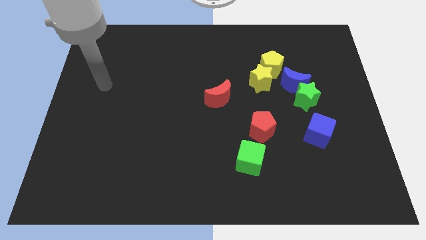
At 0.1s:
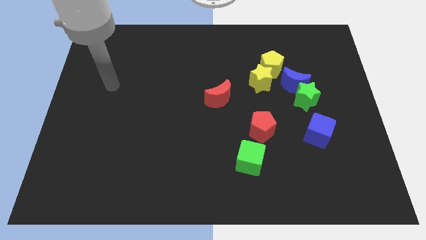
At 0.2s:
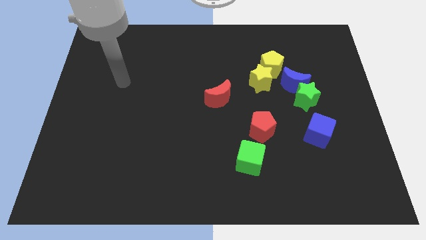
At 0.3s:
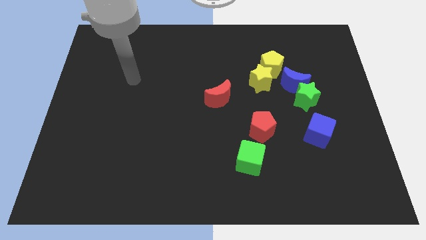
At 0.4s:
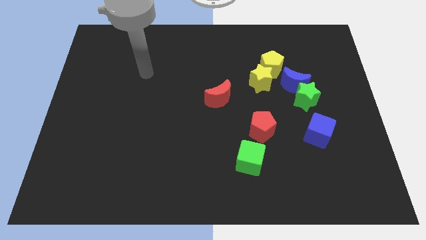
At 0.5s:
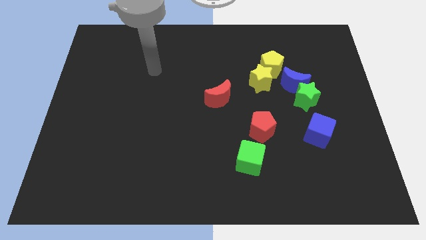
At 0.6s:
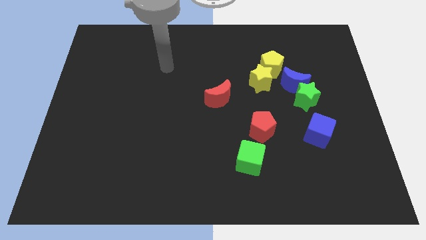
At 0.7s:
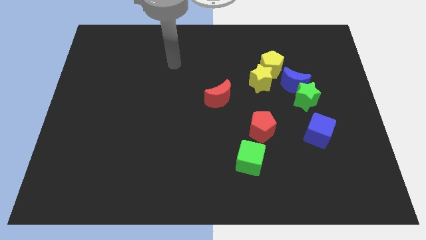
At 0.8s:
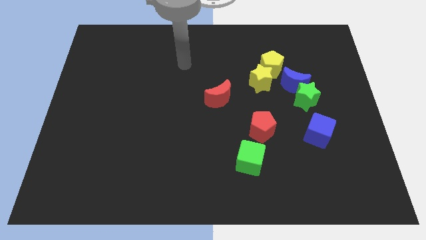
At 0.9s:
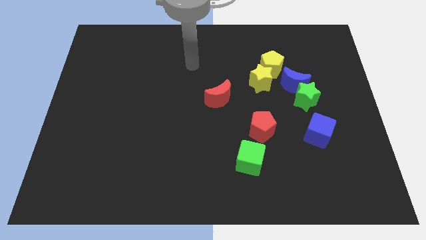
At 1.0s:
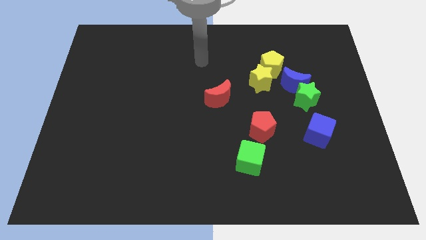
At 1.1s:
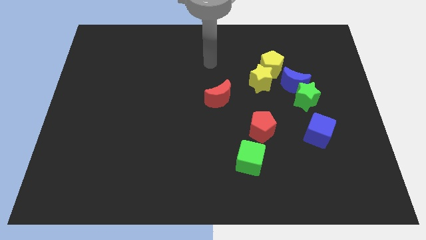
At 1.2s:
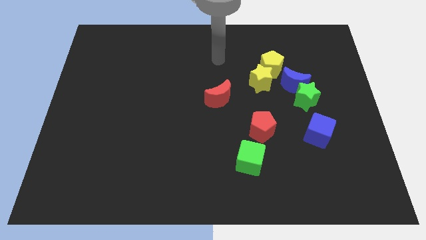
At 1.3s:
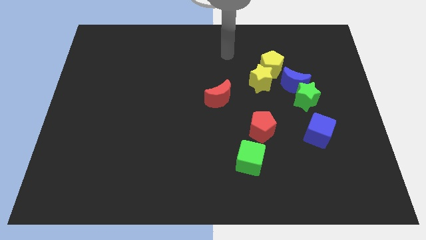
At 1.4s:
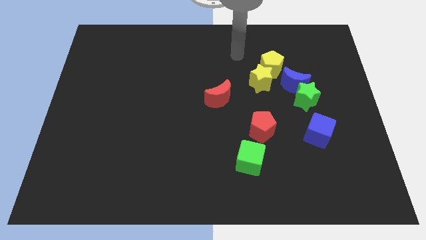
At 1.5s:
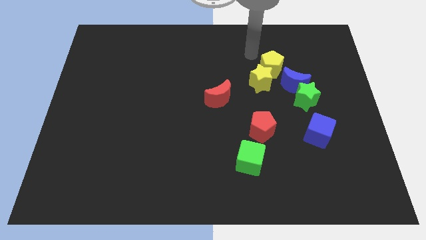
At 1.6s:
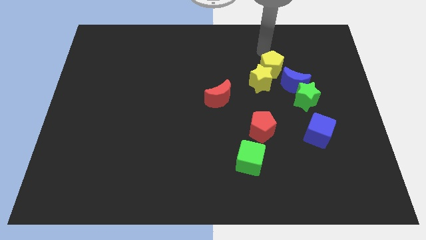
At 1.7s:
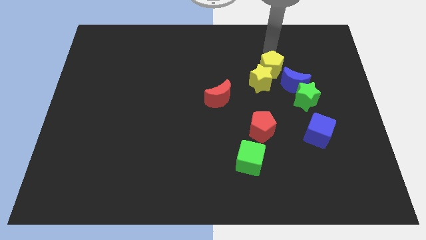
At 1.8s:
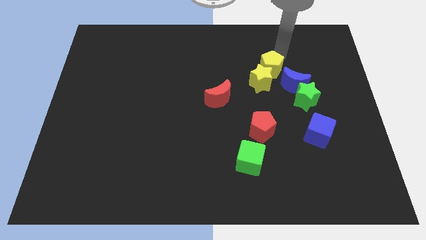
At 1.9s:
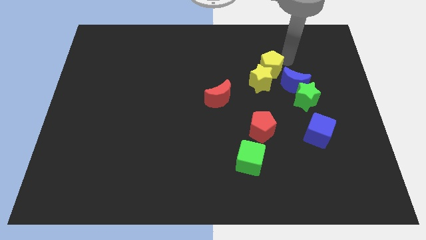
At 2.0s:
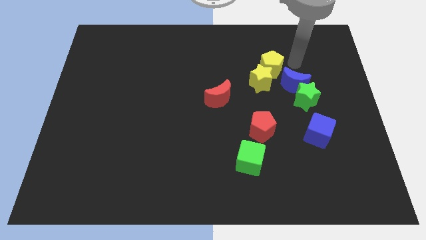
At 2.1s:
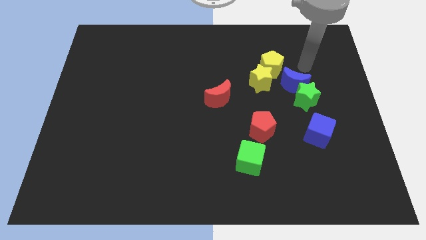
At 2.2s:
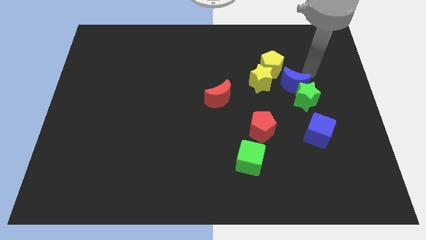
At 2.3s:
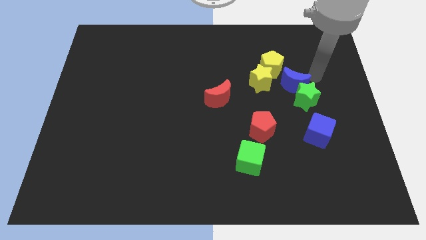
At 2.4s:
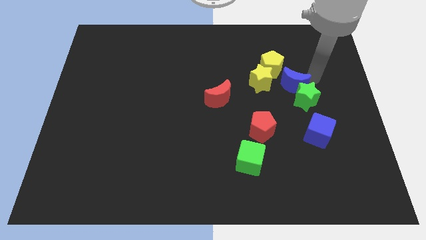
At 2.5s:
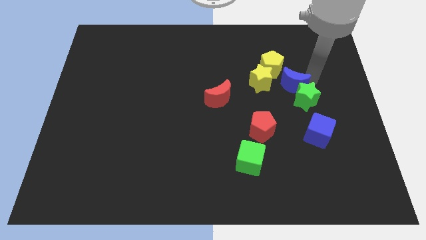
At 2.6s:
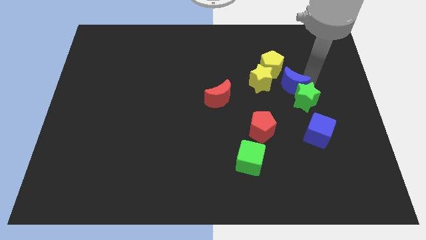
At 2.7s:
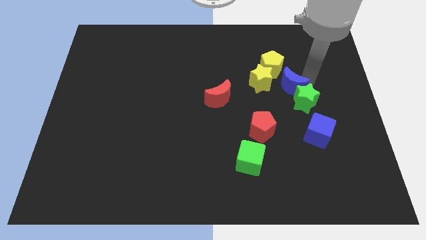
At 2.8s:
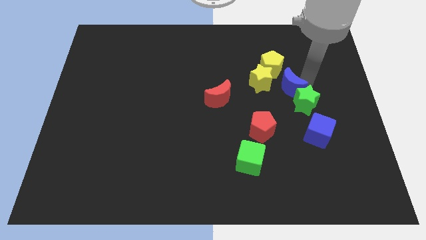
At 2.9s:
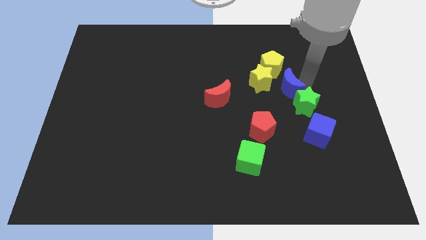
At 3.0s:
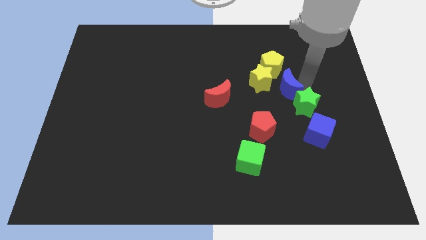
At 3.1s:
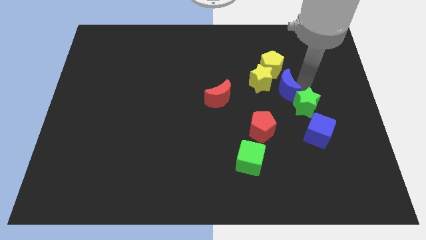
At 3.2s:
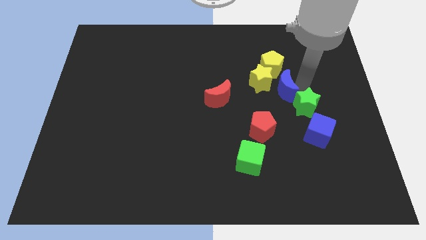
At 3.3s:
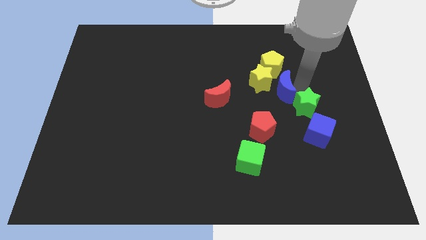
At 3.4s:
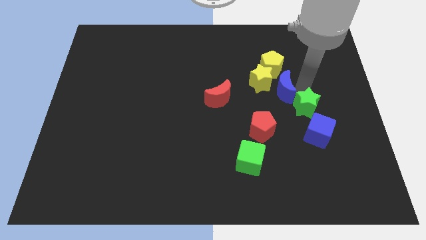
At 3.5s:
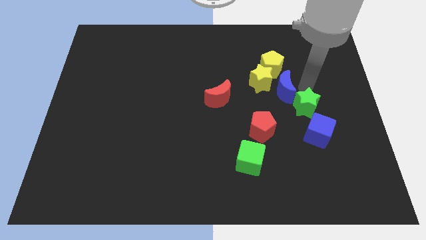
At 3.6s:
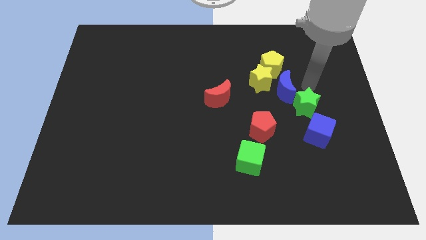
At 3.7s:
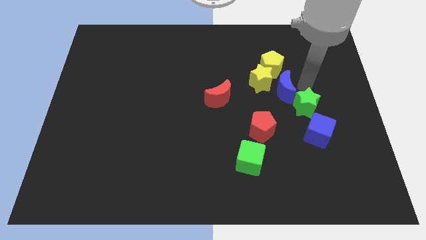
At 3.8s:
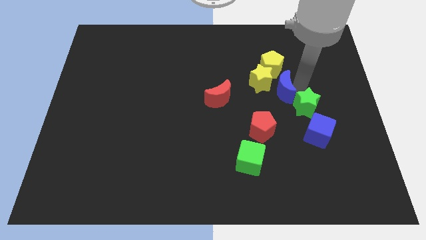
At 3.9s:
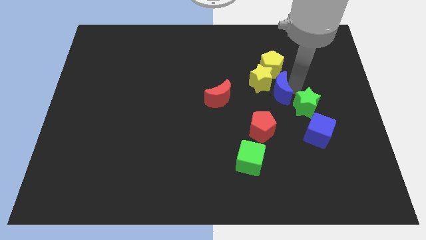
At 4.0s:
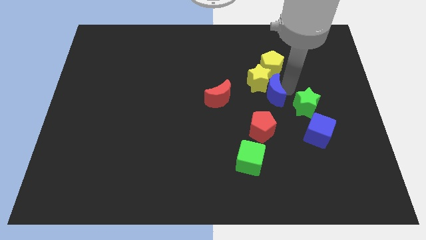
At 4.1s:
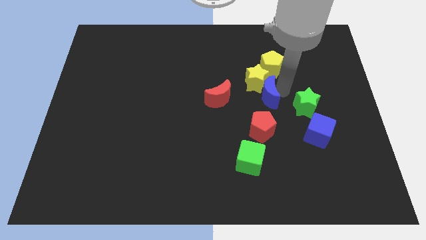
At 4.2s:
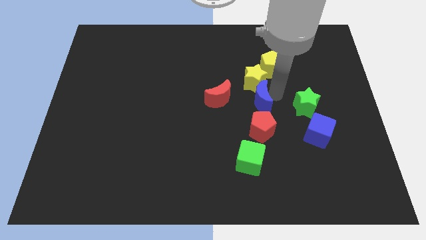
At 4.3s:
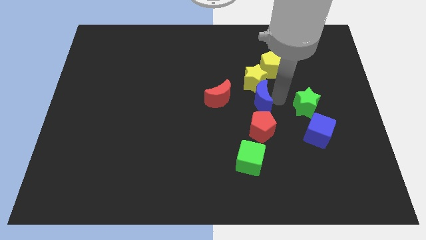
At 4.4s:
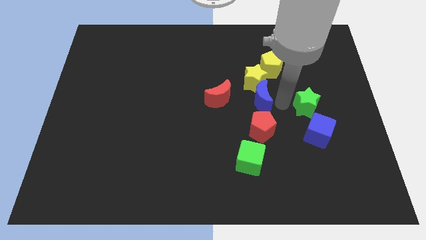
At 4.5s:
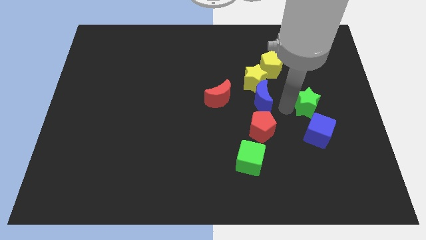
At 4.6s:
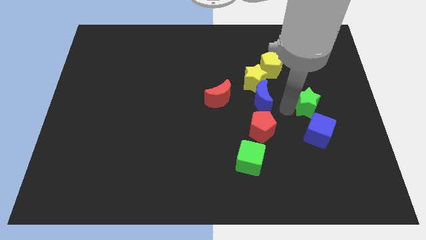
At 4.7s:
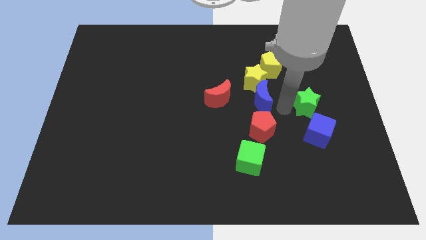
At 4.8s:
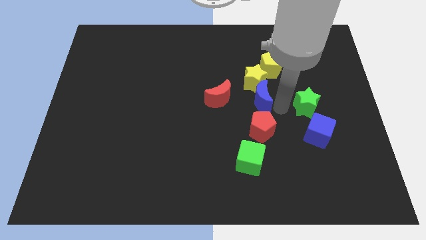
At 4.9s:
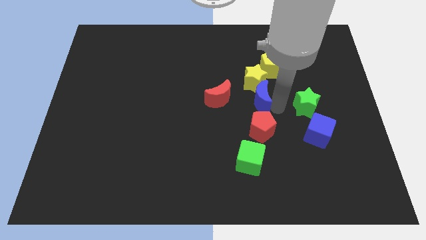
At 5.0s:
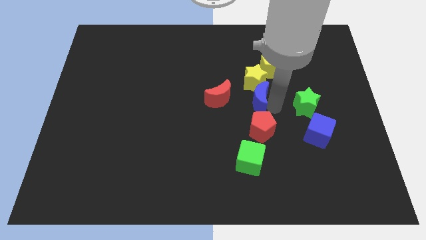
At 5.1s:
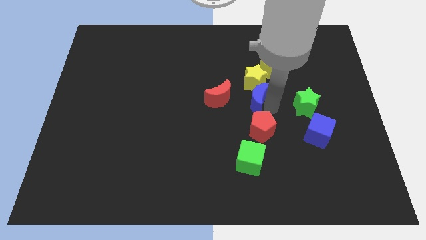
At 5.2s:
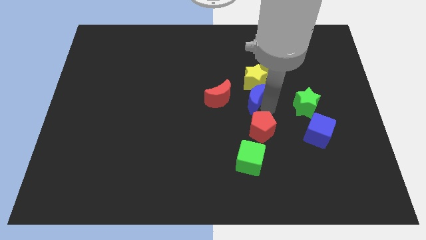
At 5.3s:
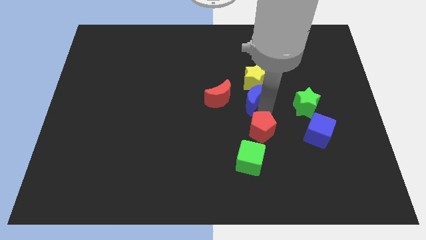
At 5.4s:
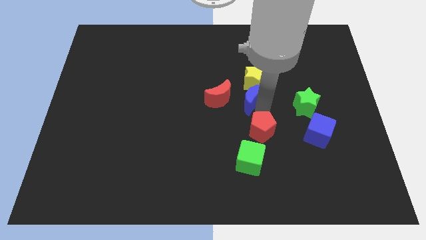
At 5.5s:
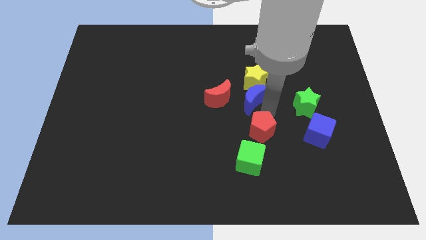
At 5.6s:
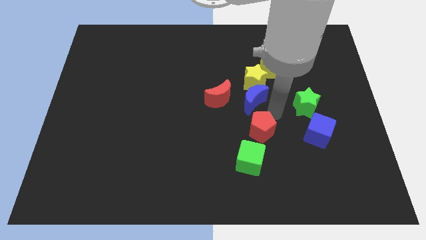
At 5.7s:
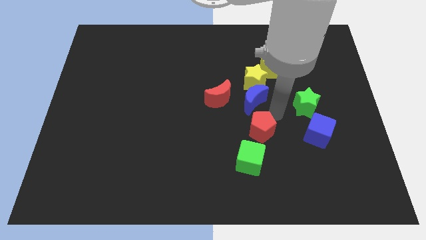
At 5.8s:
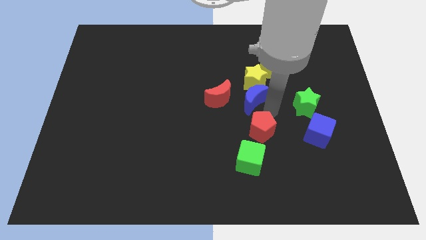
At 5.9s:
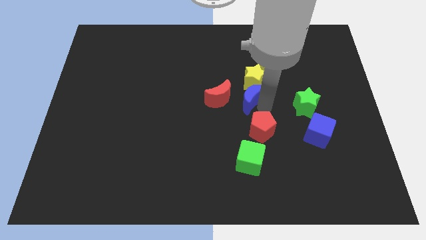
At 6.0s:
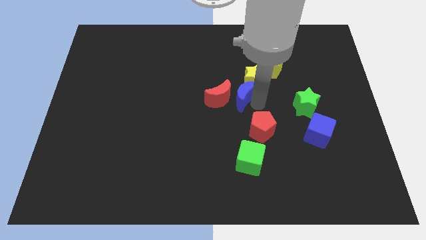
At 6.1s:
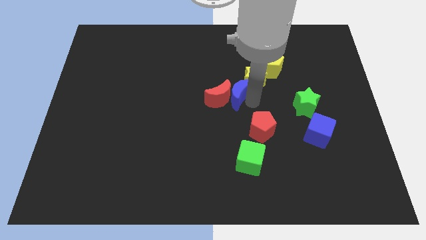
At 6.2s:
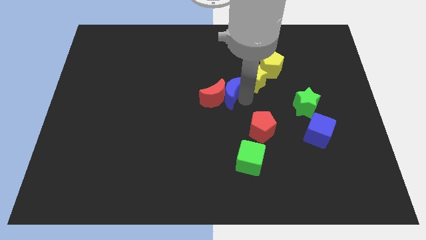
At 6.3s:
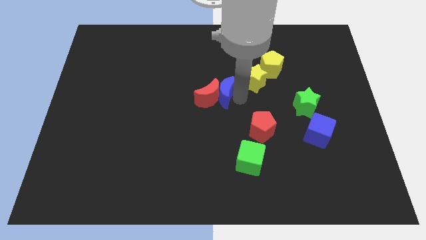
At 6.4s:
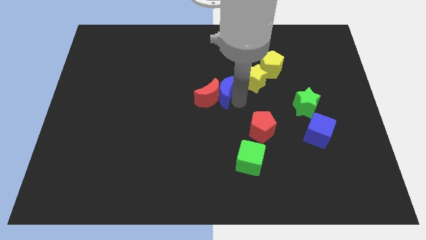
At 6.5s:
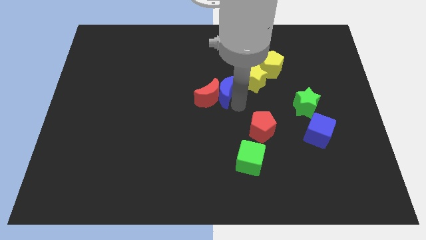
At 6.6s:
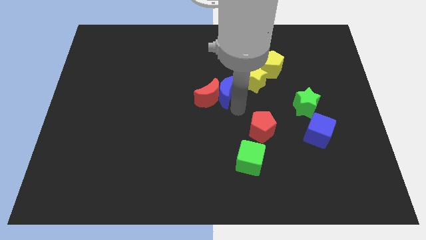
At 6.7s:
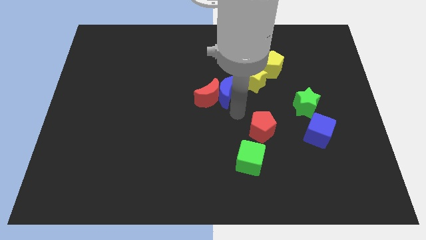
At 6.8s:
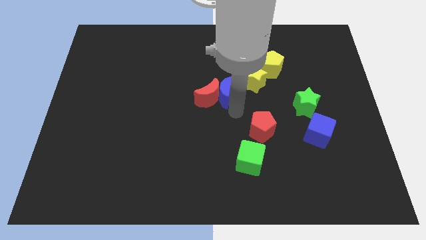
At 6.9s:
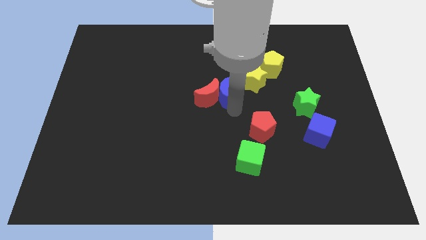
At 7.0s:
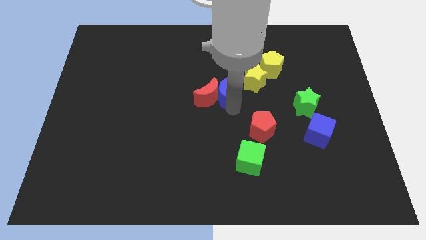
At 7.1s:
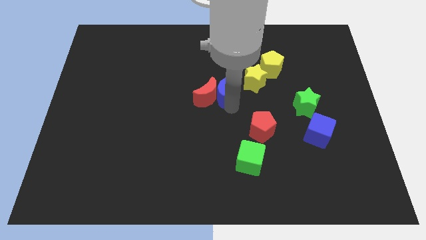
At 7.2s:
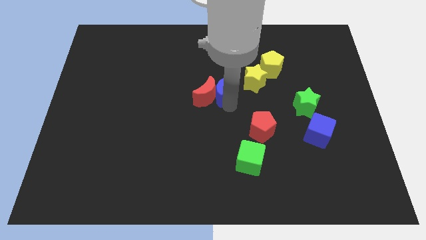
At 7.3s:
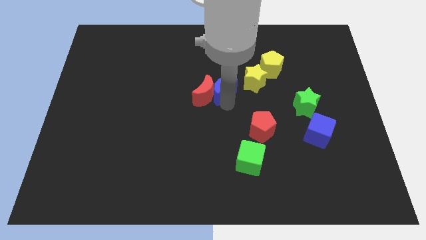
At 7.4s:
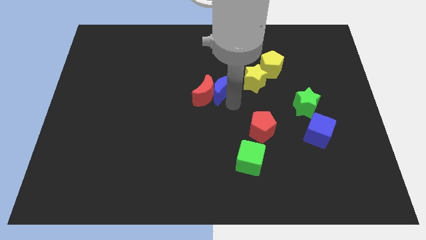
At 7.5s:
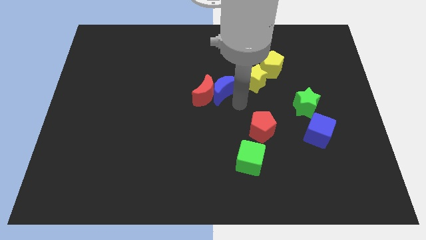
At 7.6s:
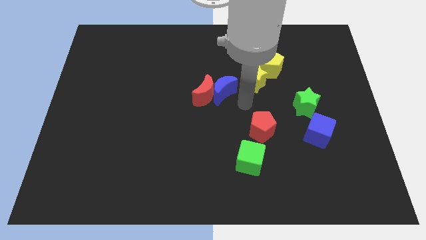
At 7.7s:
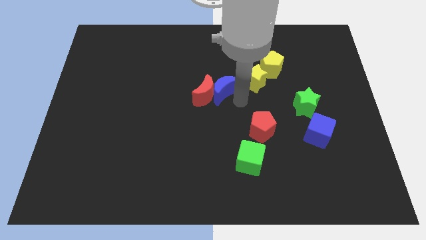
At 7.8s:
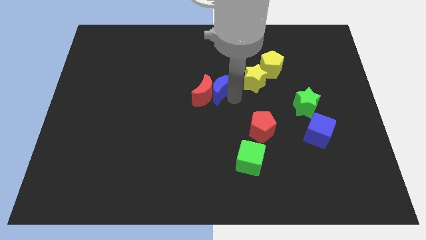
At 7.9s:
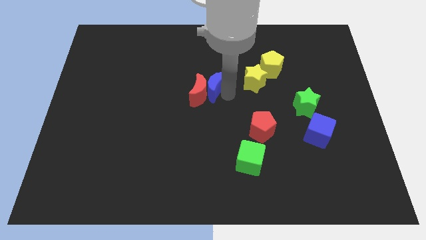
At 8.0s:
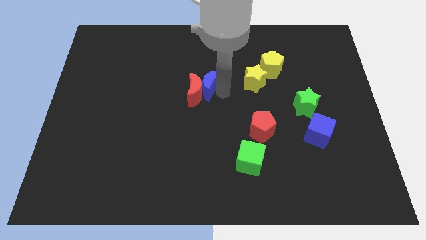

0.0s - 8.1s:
move the blue moon to the left

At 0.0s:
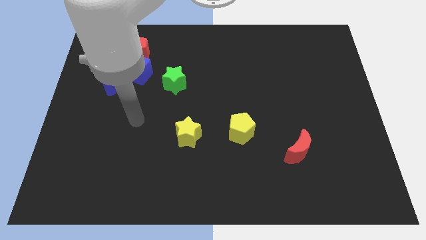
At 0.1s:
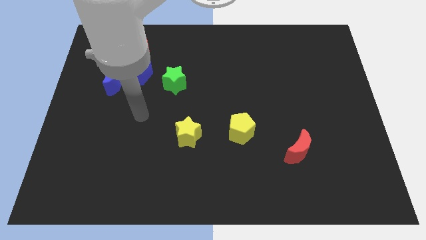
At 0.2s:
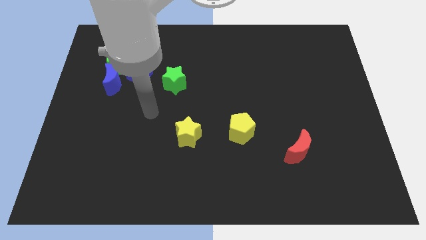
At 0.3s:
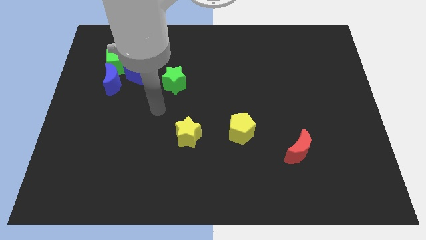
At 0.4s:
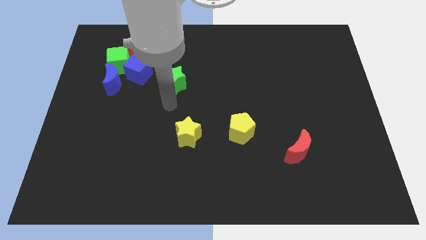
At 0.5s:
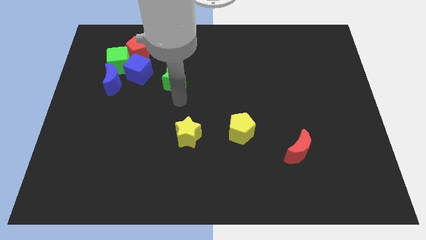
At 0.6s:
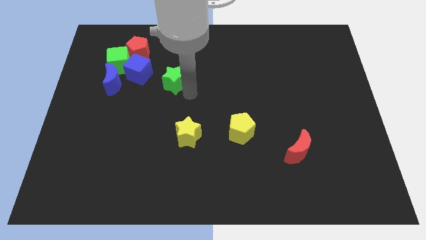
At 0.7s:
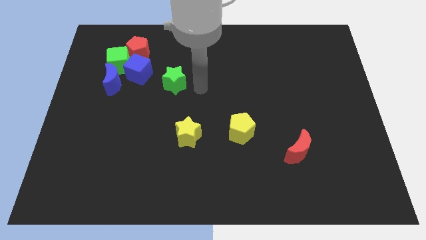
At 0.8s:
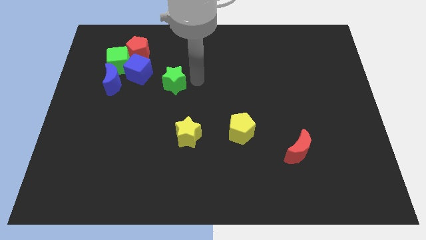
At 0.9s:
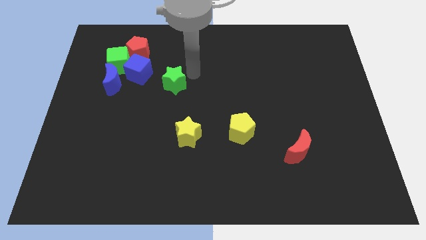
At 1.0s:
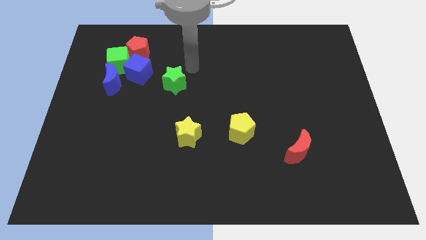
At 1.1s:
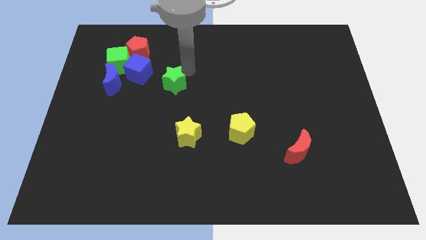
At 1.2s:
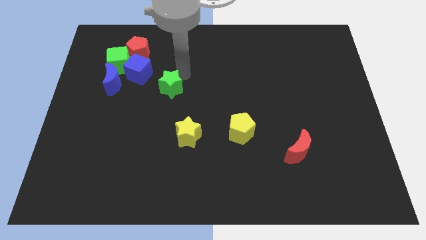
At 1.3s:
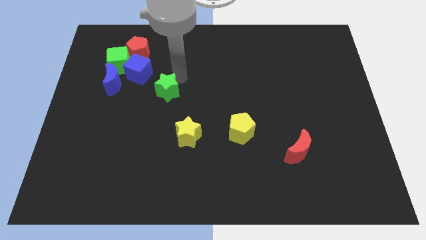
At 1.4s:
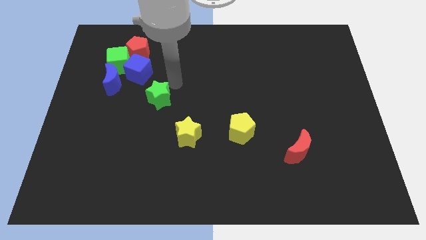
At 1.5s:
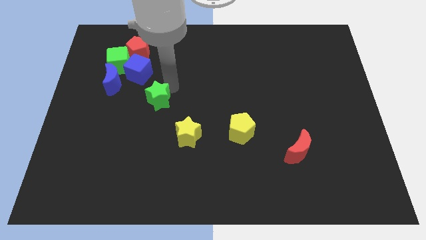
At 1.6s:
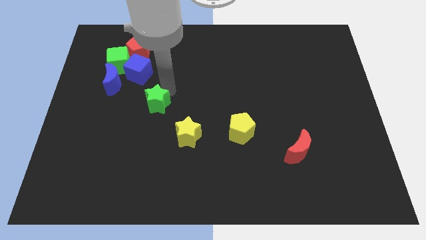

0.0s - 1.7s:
slide the green star downwards and then to the left a bit
